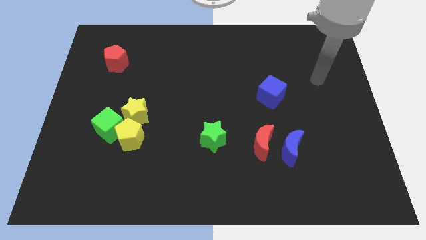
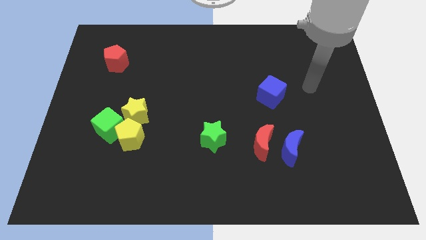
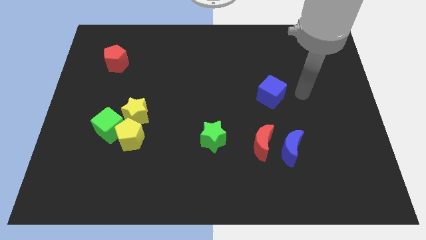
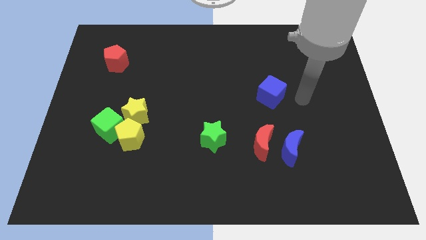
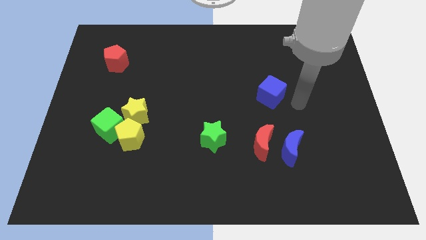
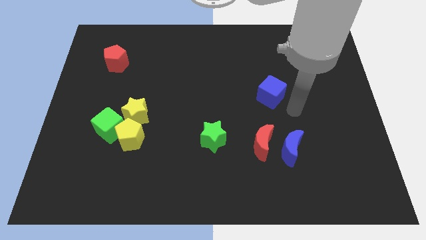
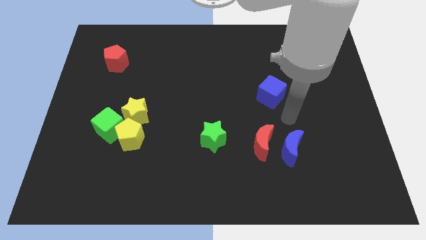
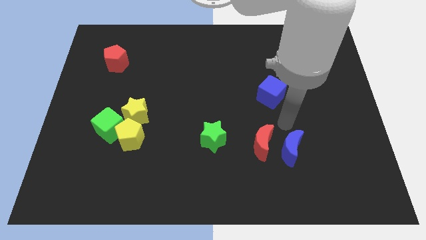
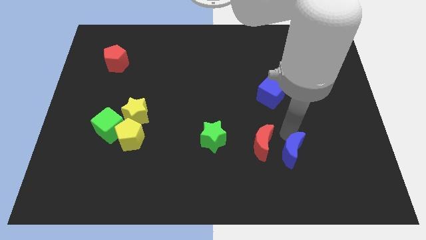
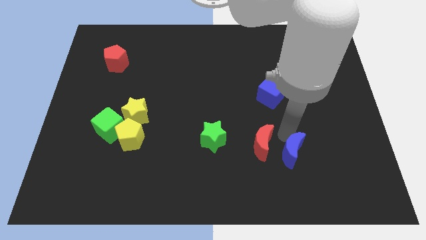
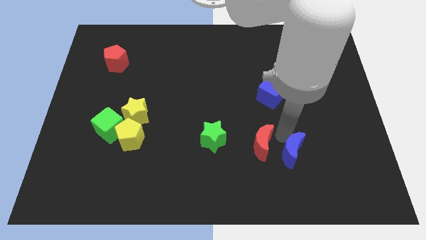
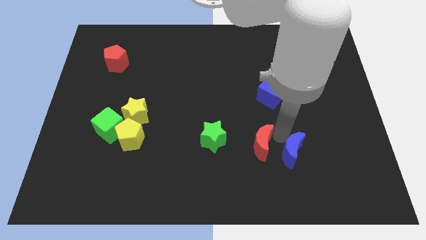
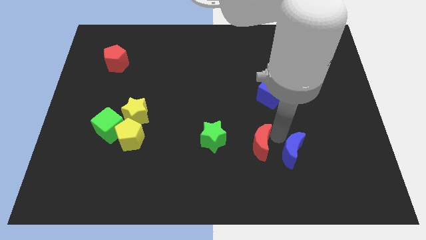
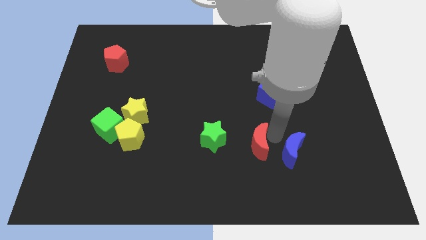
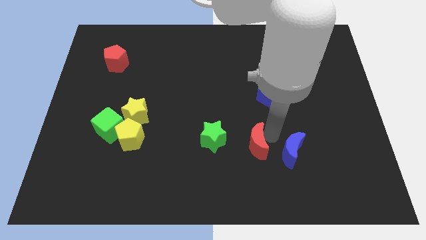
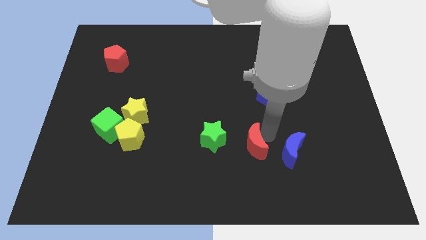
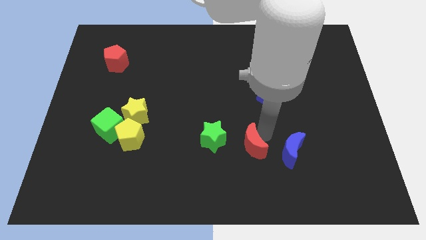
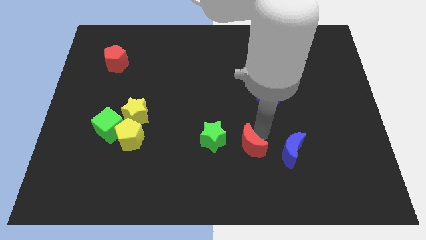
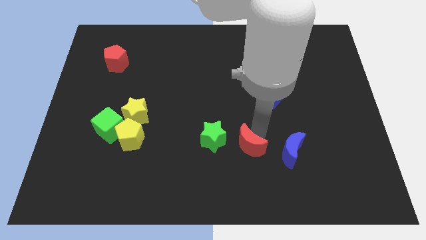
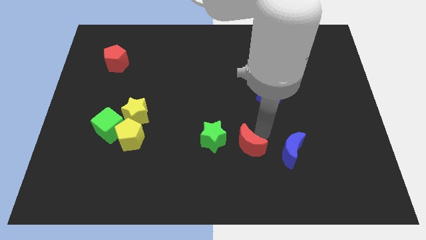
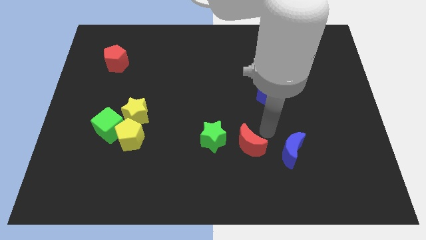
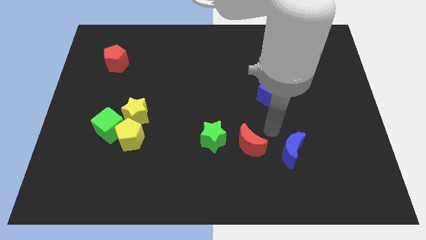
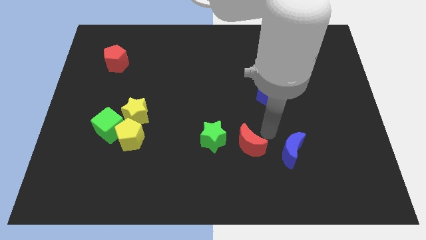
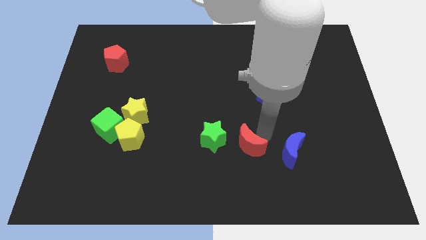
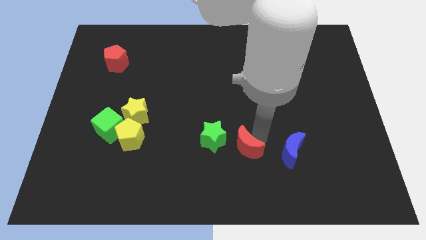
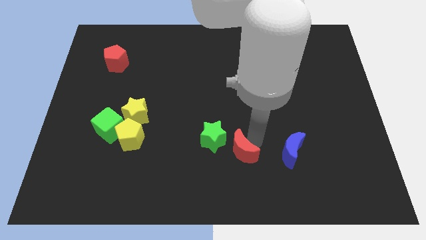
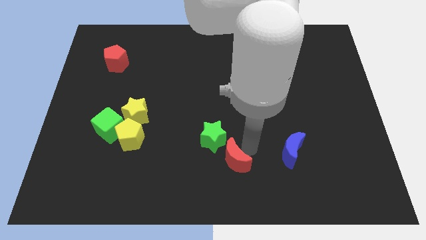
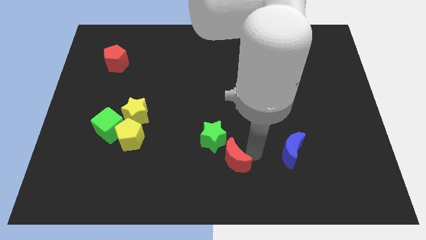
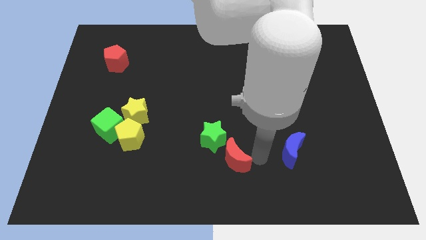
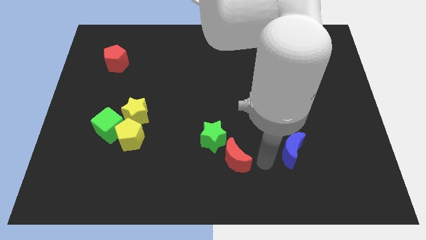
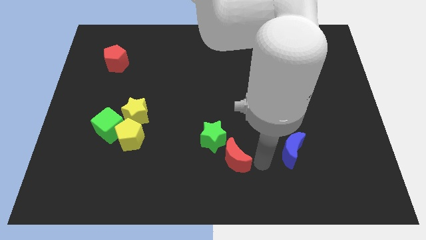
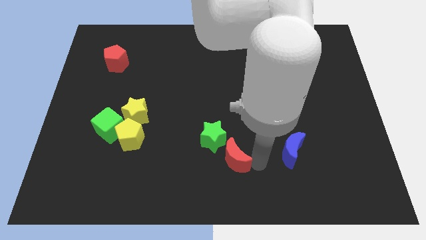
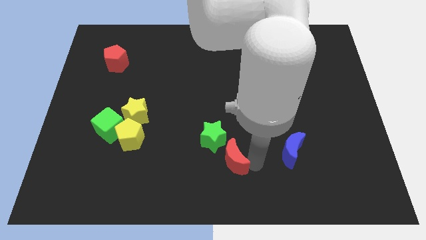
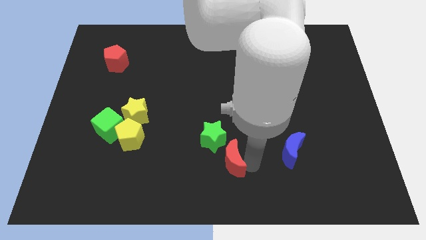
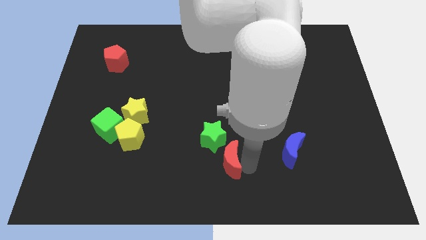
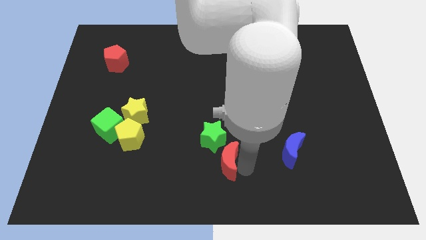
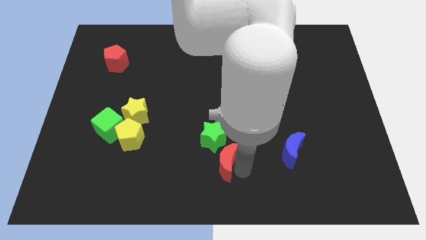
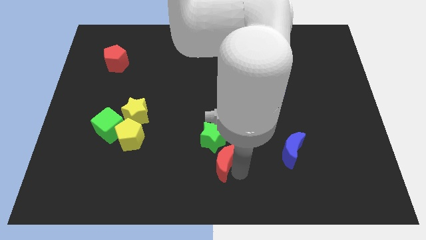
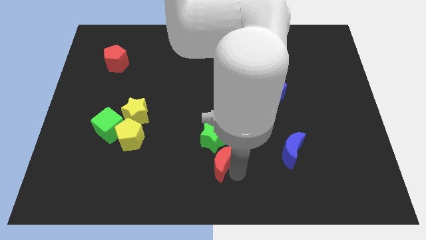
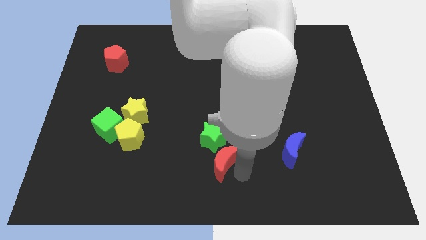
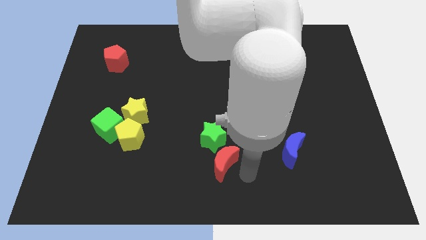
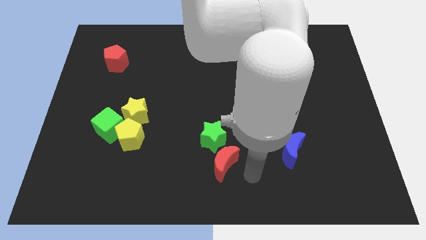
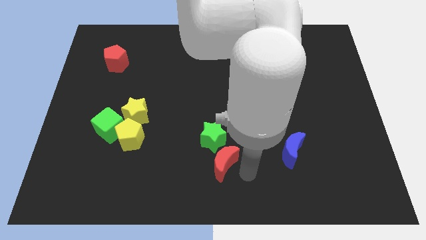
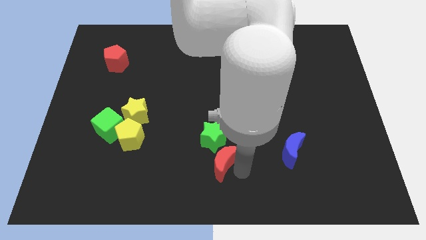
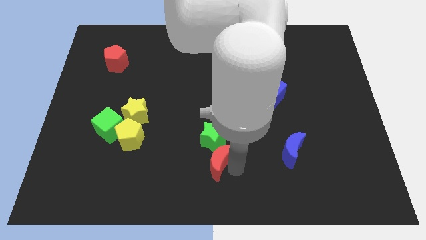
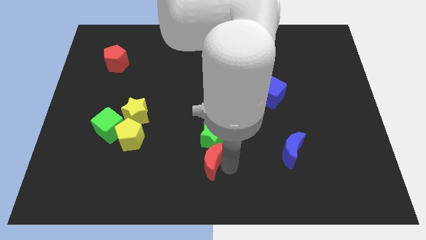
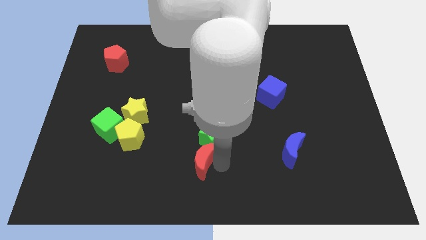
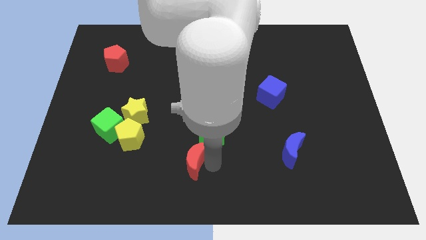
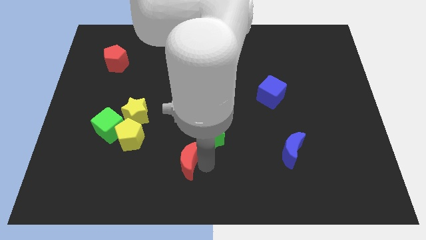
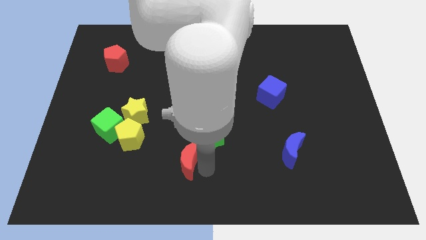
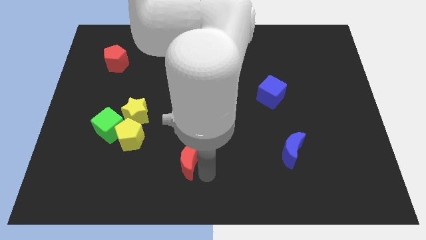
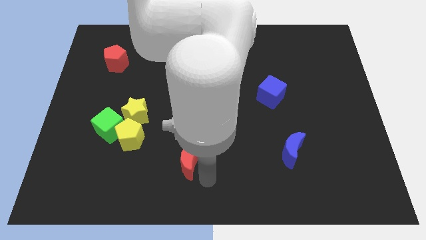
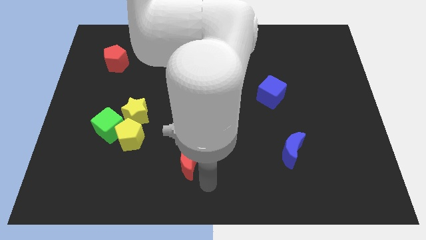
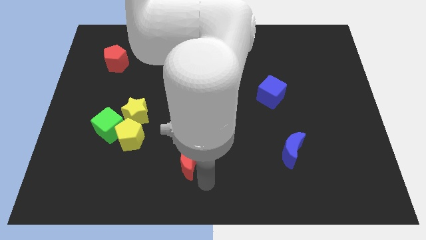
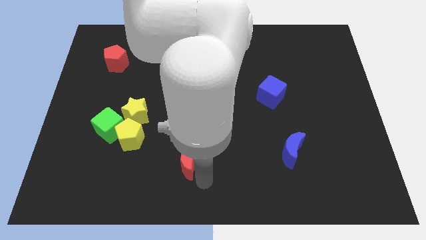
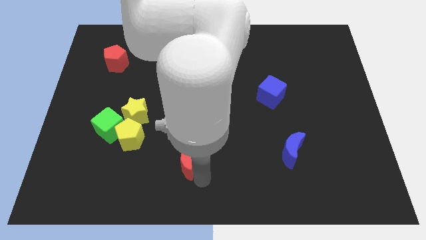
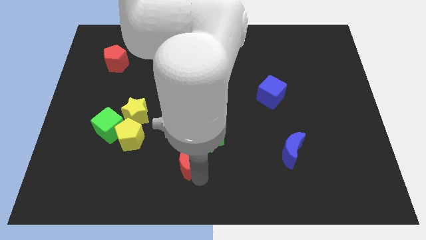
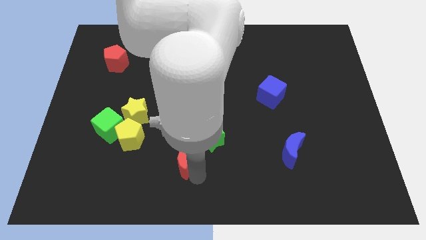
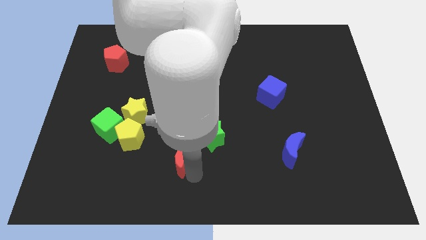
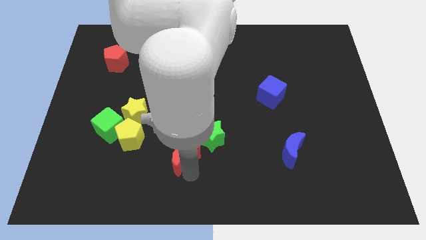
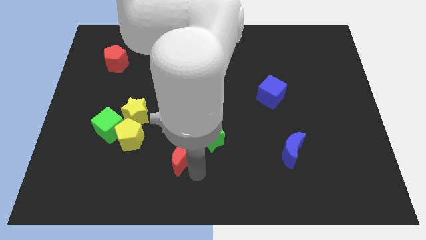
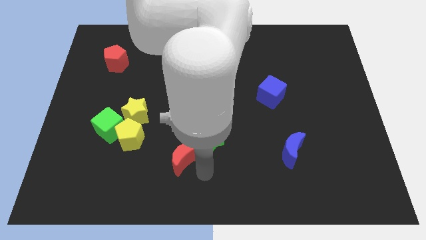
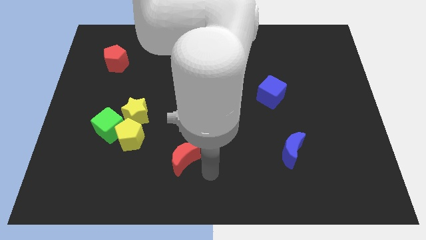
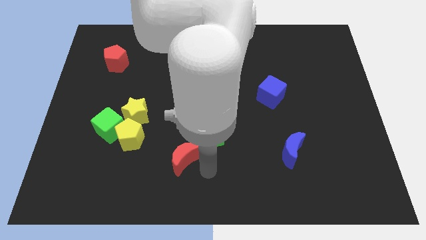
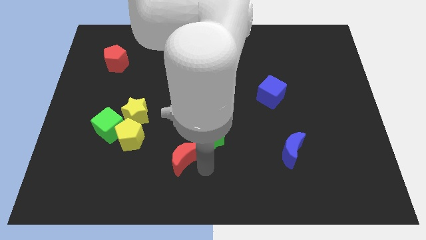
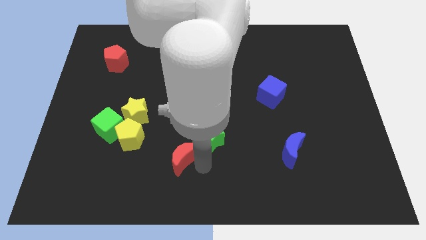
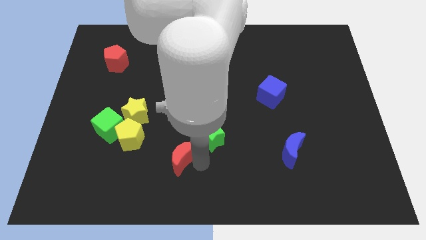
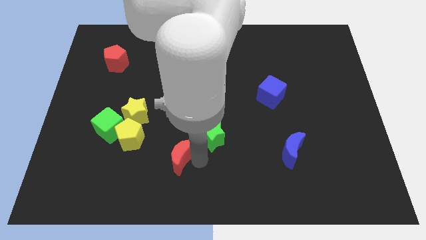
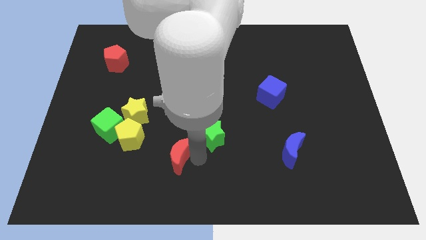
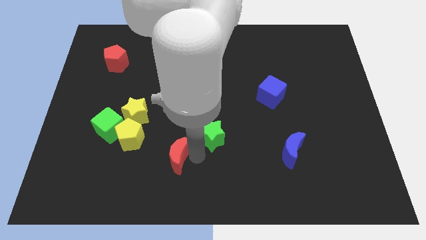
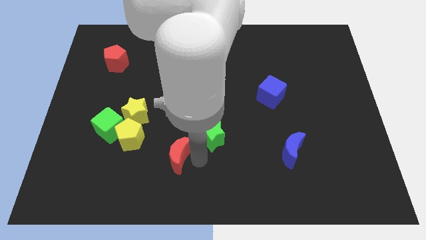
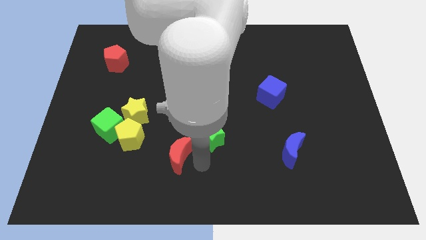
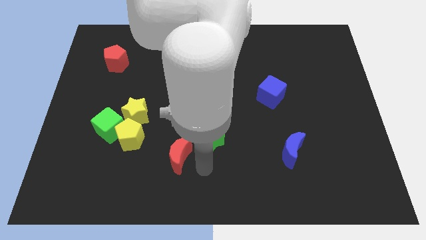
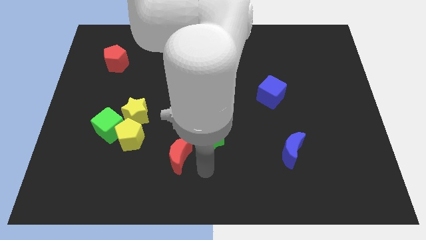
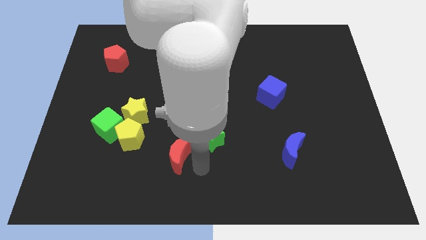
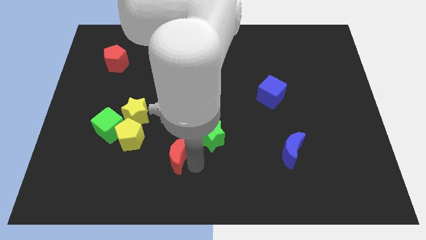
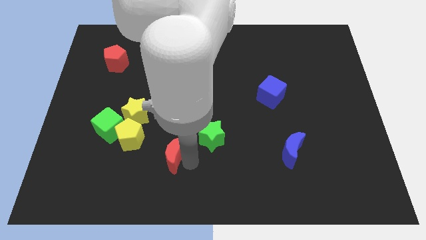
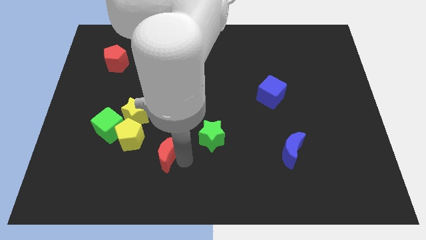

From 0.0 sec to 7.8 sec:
move the red moon left
